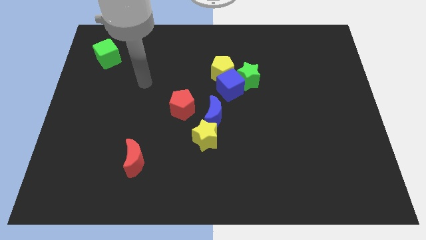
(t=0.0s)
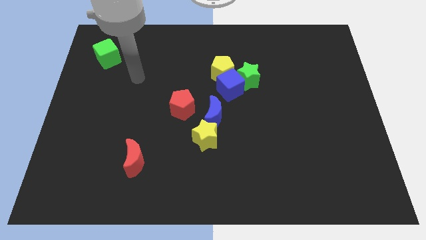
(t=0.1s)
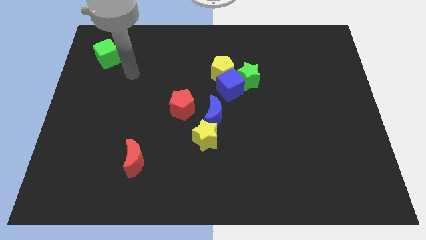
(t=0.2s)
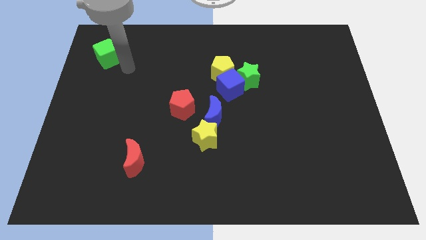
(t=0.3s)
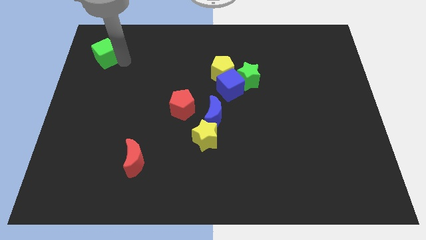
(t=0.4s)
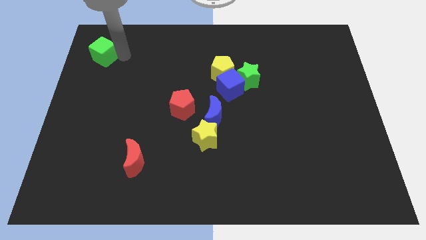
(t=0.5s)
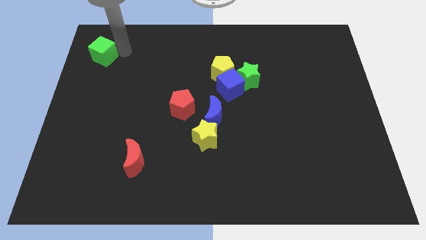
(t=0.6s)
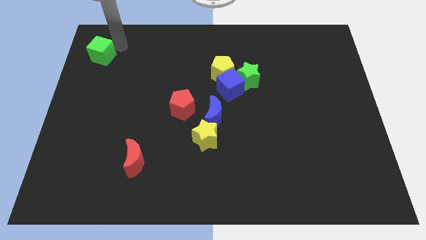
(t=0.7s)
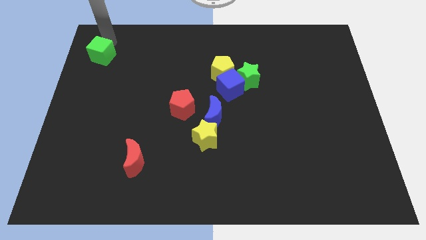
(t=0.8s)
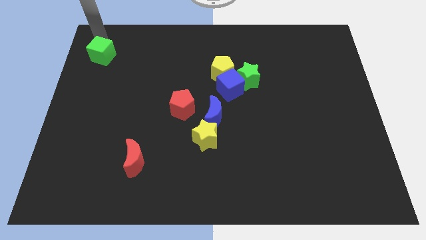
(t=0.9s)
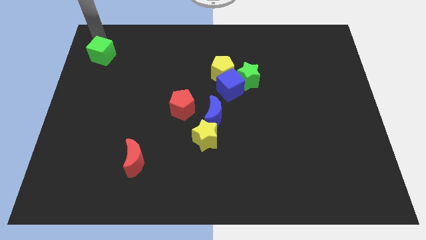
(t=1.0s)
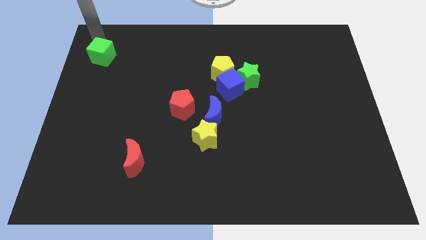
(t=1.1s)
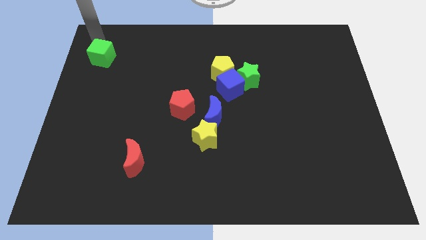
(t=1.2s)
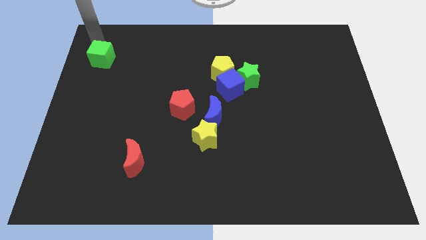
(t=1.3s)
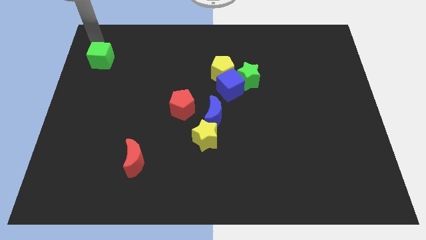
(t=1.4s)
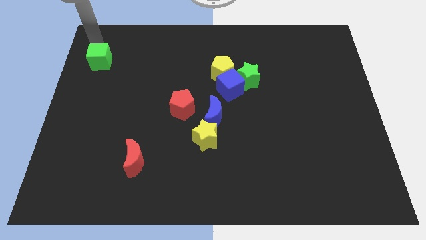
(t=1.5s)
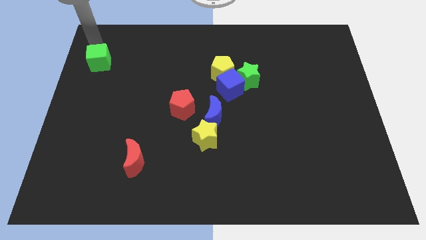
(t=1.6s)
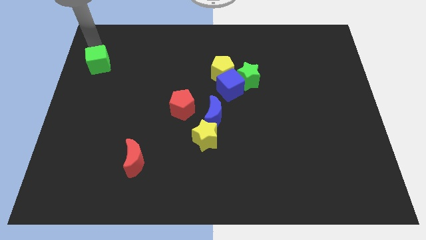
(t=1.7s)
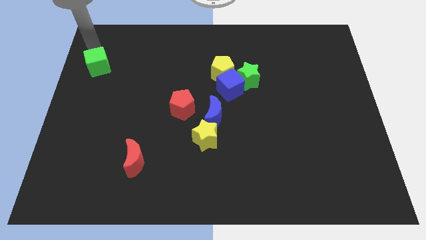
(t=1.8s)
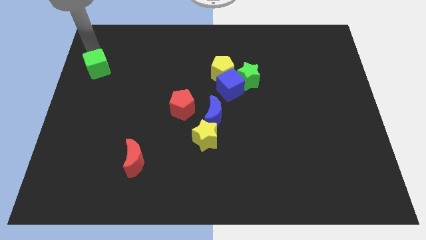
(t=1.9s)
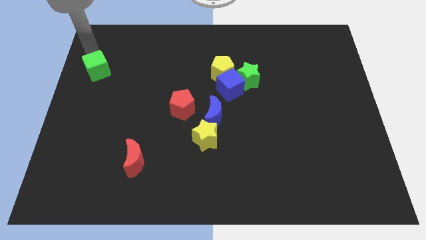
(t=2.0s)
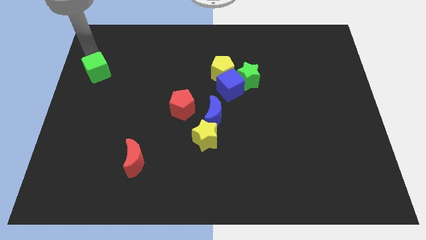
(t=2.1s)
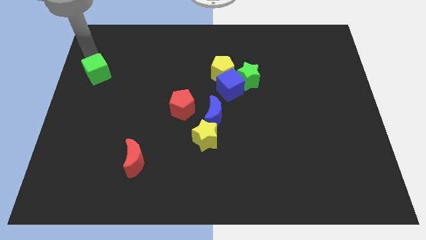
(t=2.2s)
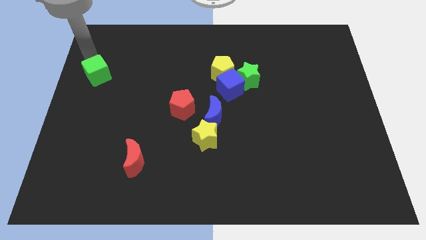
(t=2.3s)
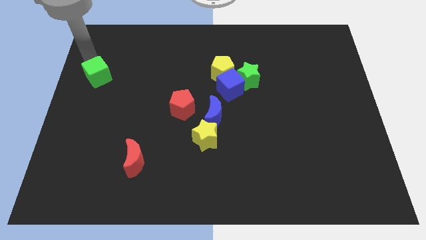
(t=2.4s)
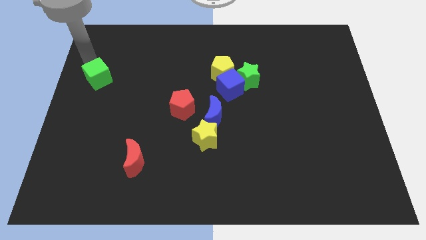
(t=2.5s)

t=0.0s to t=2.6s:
slightly move the green cube down

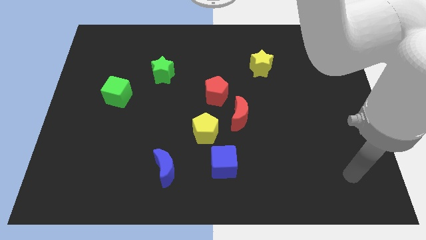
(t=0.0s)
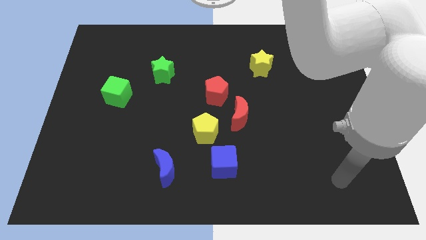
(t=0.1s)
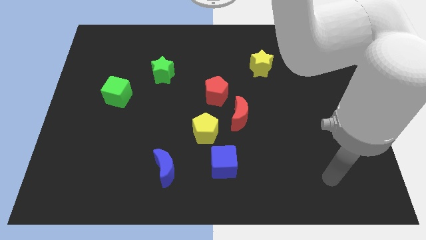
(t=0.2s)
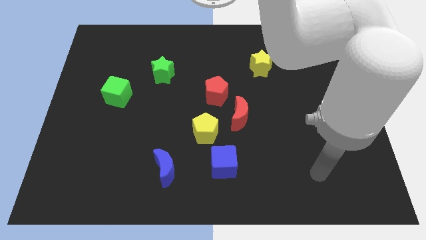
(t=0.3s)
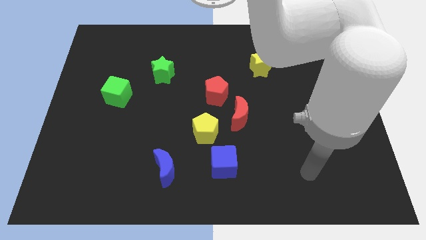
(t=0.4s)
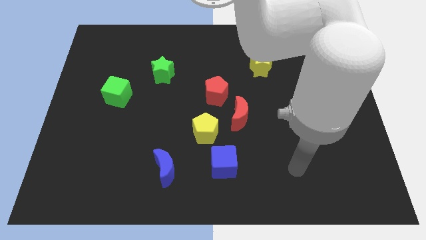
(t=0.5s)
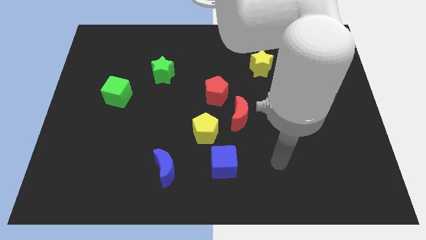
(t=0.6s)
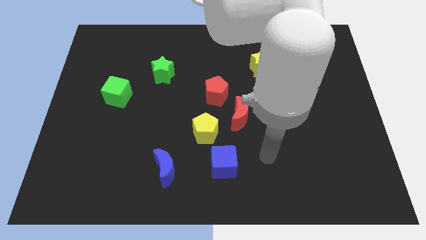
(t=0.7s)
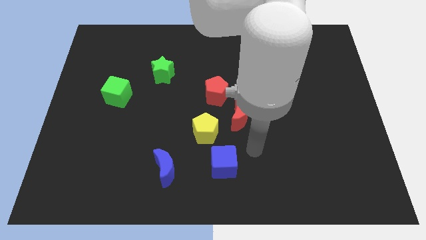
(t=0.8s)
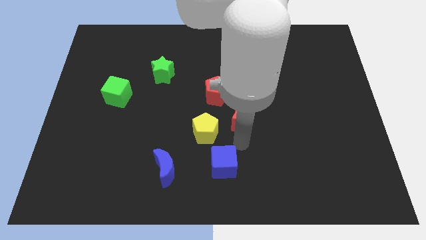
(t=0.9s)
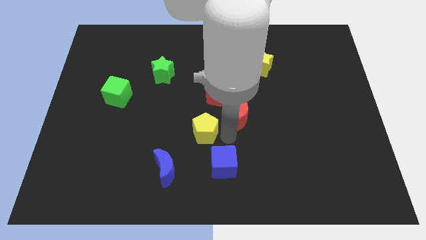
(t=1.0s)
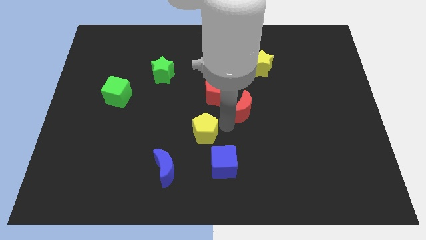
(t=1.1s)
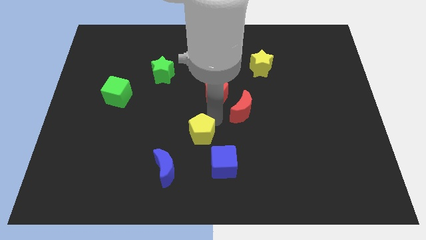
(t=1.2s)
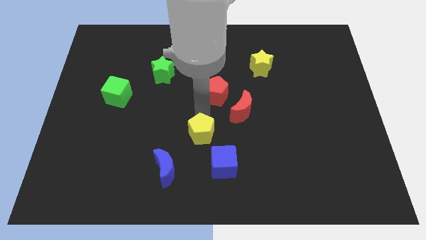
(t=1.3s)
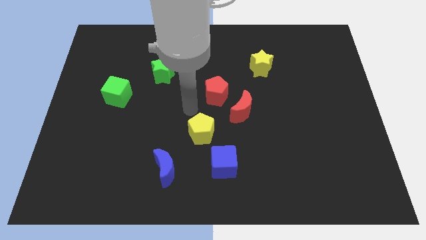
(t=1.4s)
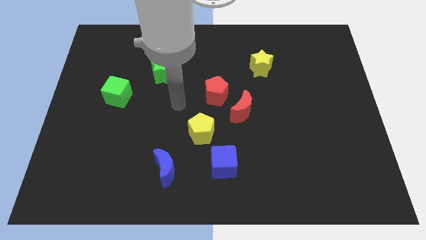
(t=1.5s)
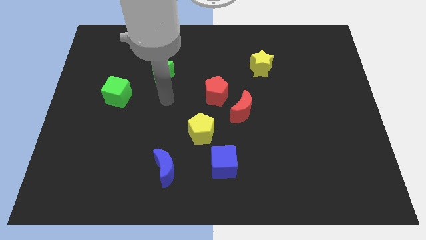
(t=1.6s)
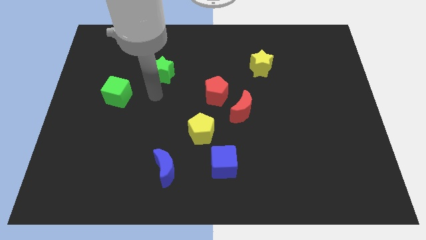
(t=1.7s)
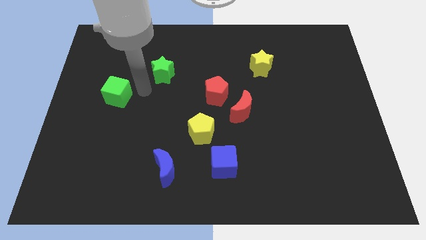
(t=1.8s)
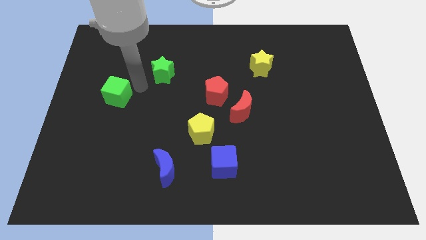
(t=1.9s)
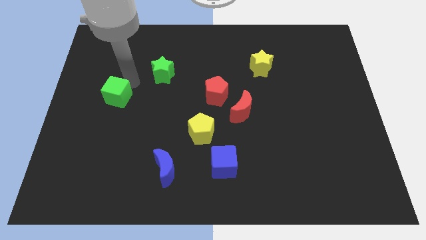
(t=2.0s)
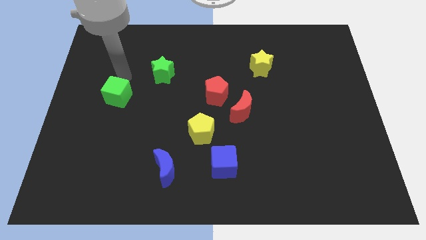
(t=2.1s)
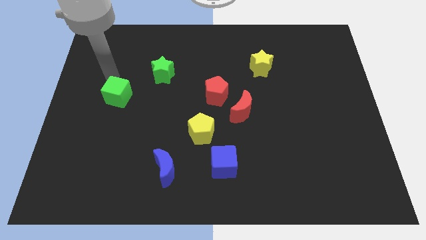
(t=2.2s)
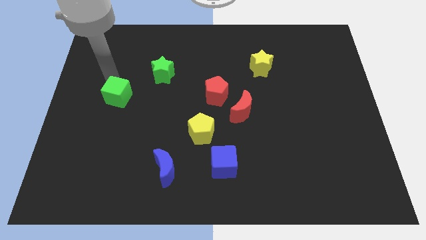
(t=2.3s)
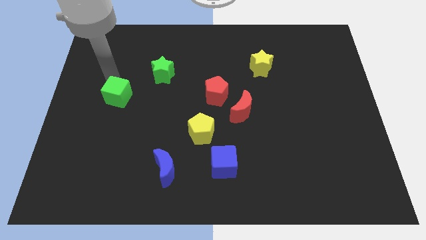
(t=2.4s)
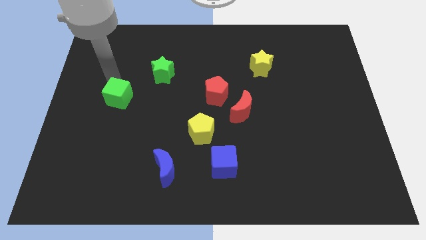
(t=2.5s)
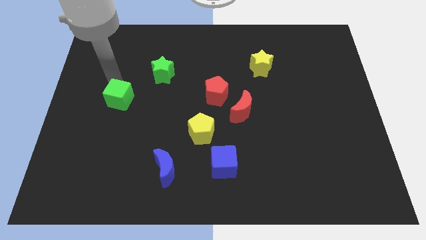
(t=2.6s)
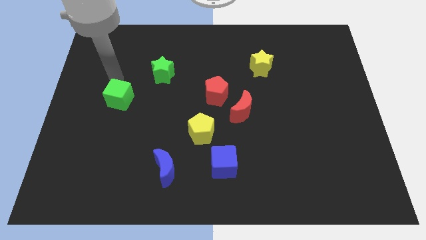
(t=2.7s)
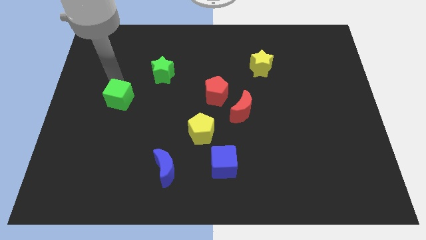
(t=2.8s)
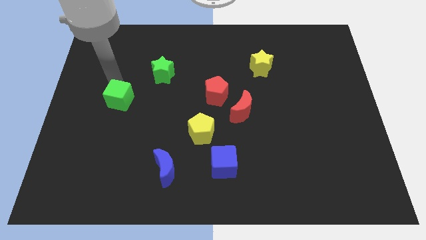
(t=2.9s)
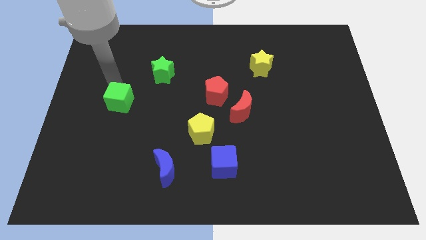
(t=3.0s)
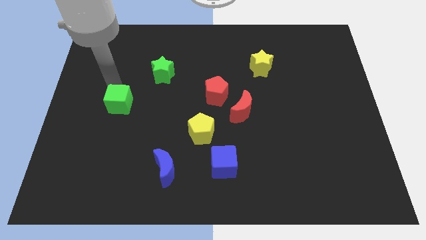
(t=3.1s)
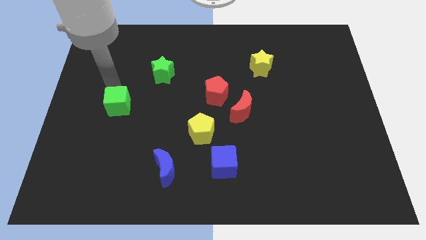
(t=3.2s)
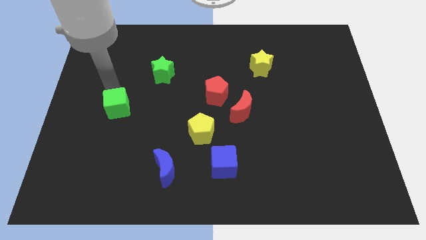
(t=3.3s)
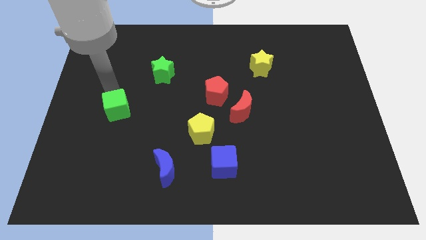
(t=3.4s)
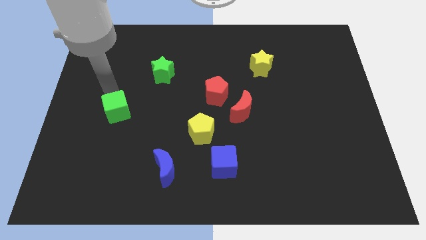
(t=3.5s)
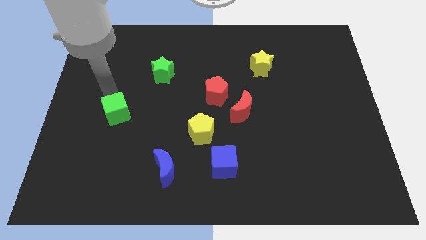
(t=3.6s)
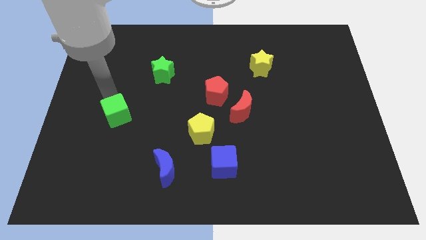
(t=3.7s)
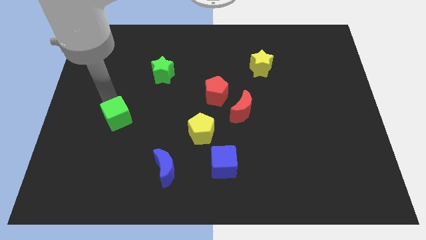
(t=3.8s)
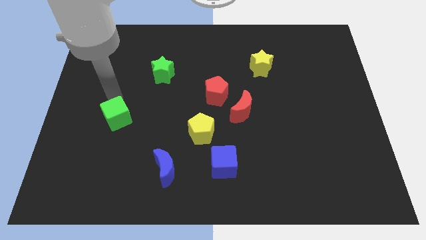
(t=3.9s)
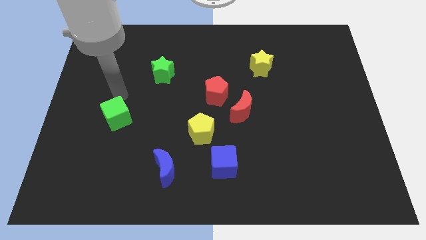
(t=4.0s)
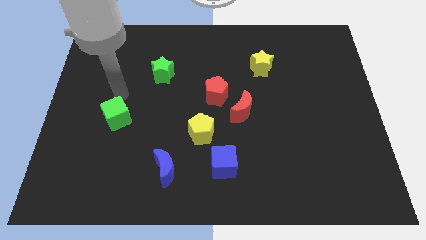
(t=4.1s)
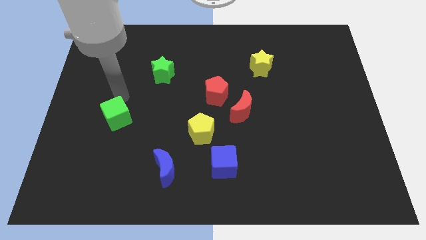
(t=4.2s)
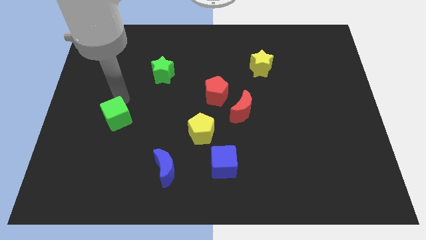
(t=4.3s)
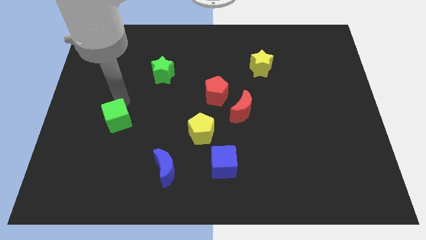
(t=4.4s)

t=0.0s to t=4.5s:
push the green cube down slightly

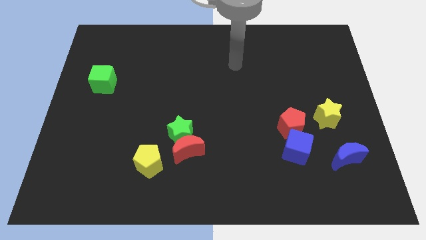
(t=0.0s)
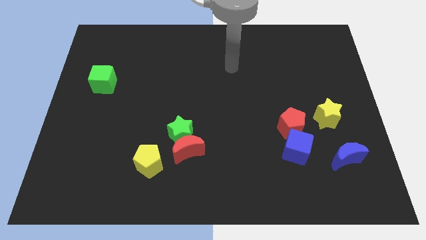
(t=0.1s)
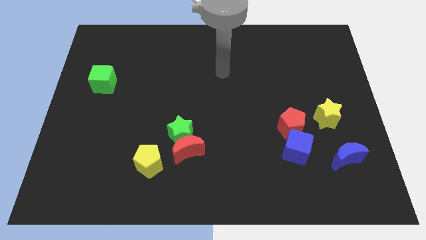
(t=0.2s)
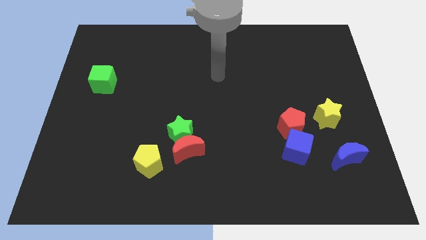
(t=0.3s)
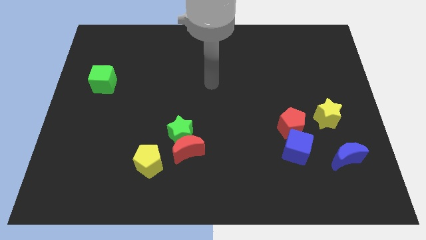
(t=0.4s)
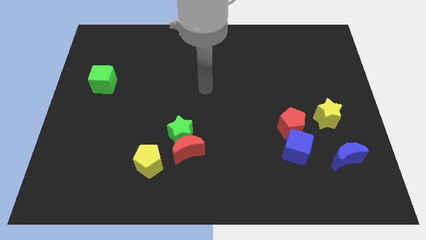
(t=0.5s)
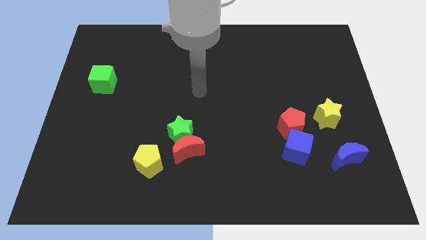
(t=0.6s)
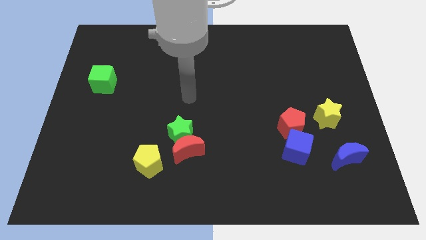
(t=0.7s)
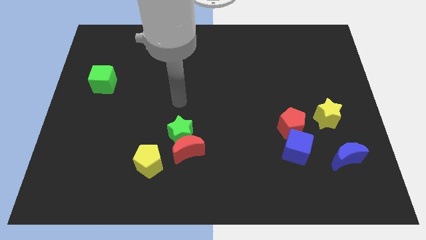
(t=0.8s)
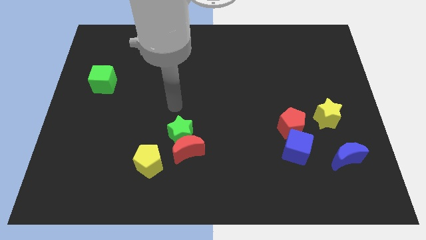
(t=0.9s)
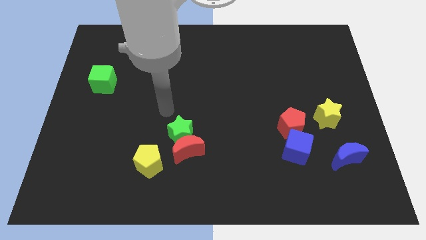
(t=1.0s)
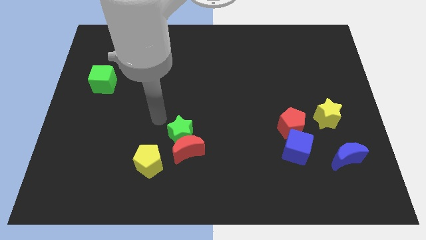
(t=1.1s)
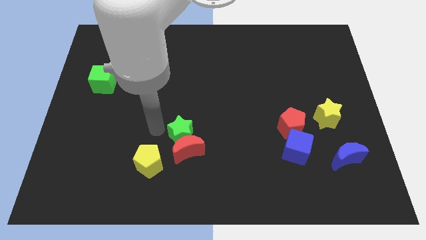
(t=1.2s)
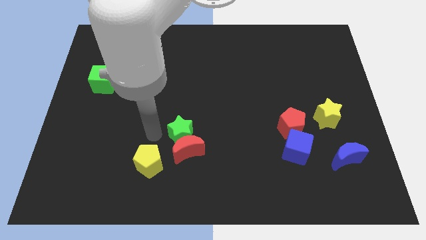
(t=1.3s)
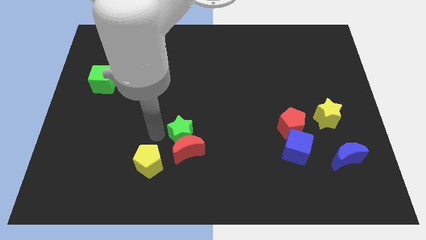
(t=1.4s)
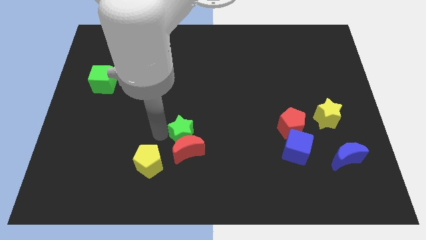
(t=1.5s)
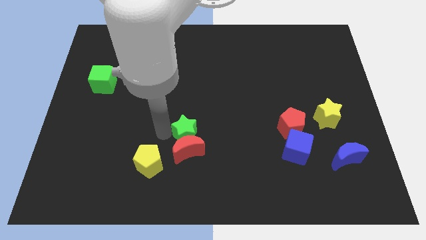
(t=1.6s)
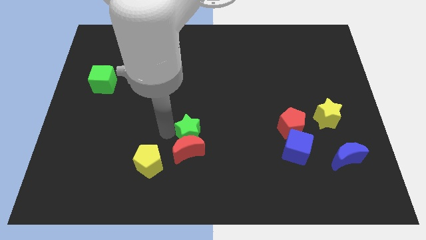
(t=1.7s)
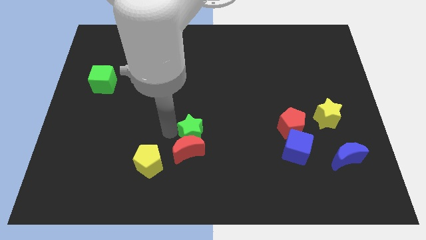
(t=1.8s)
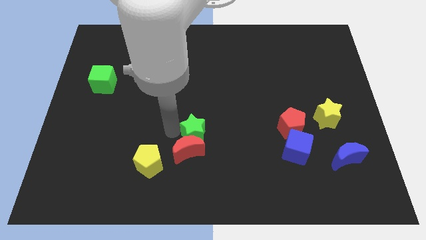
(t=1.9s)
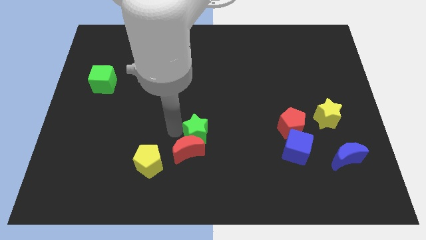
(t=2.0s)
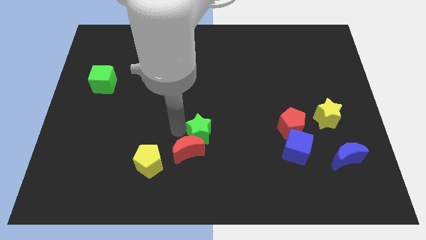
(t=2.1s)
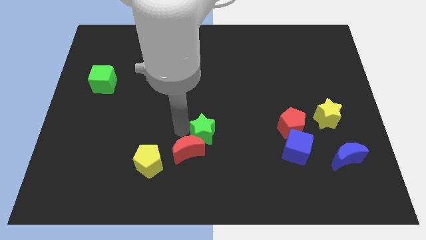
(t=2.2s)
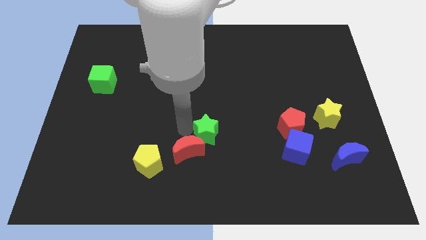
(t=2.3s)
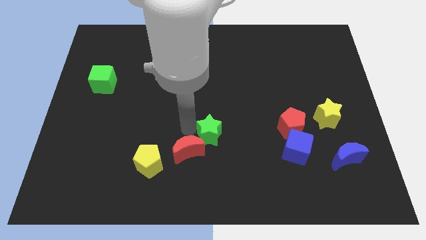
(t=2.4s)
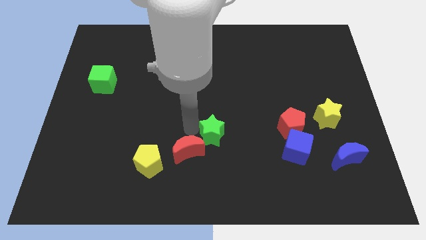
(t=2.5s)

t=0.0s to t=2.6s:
push the green star to the right a little
